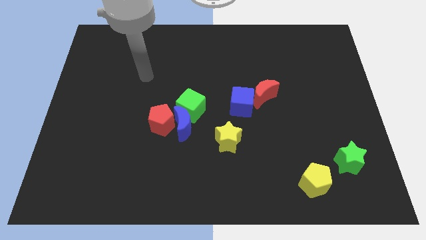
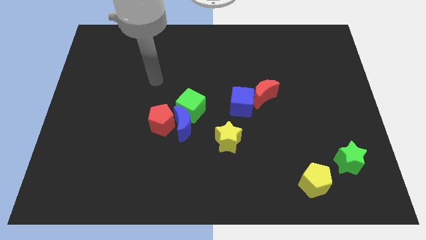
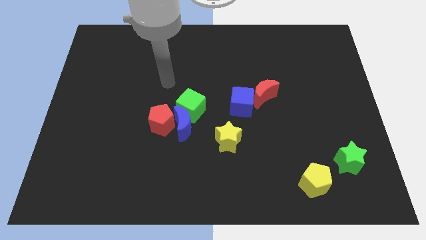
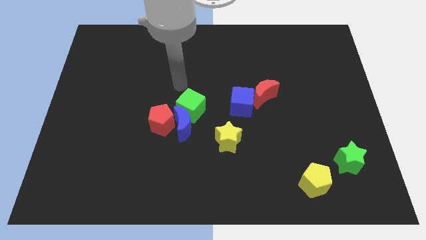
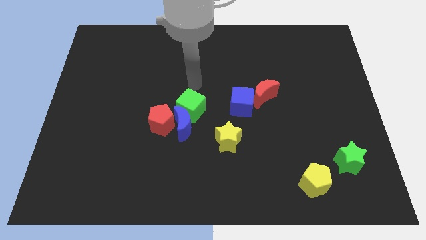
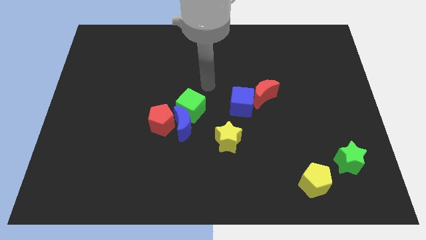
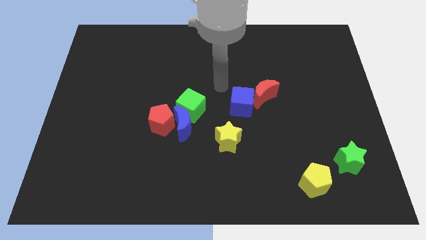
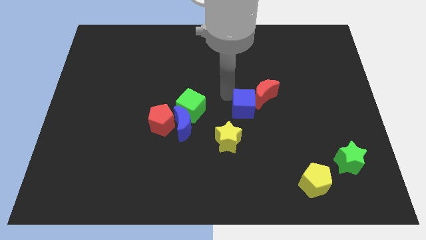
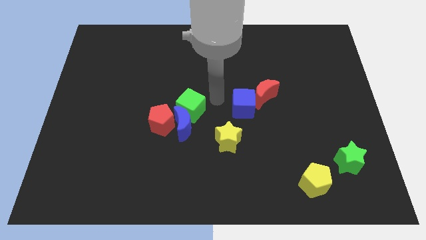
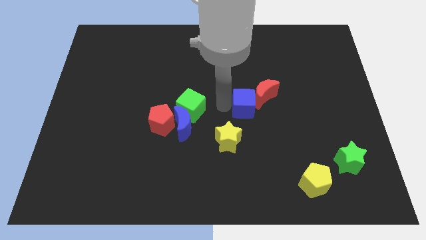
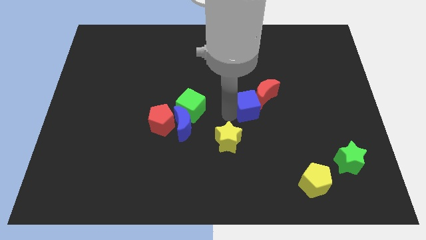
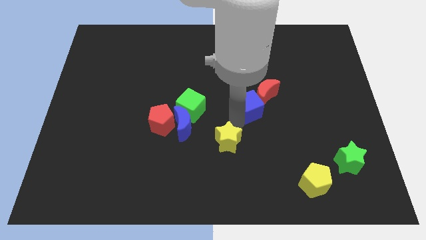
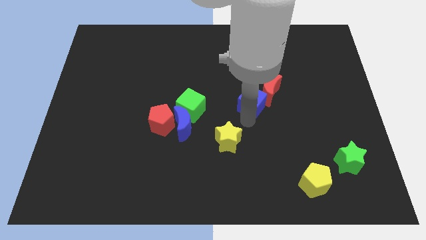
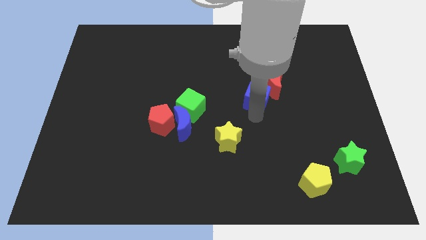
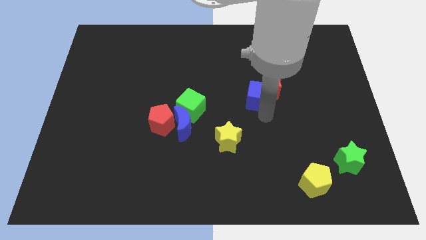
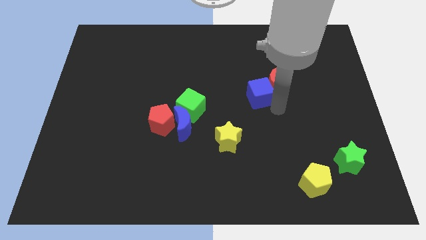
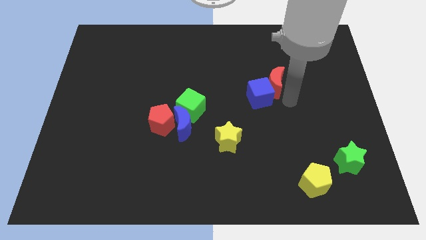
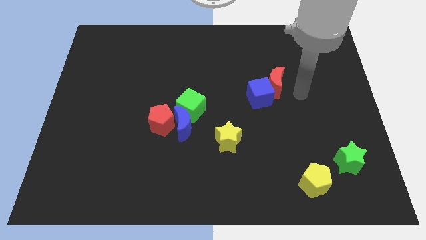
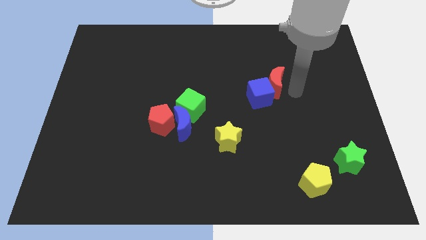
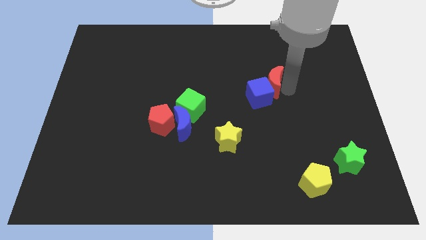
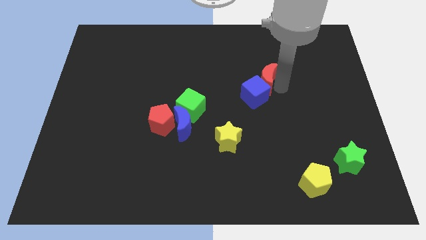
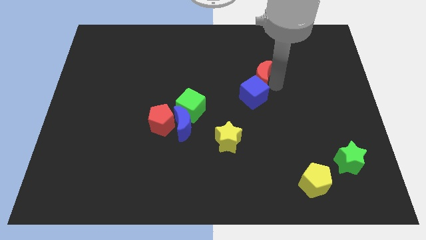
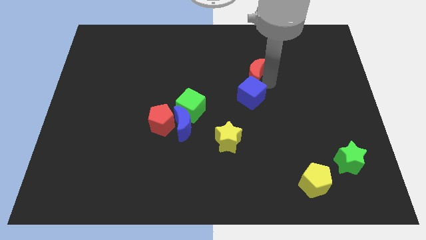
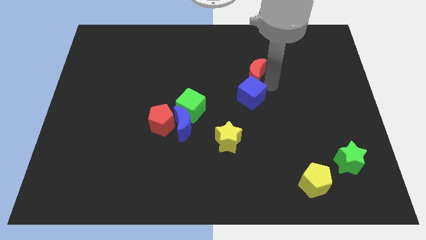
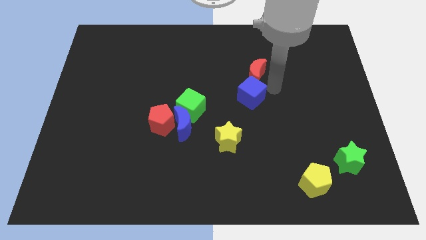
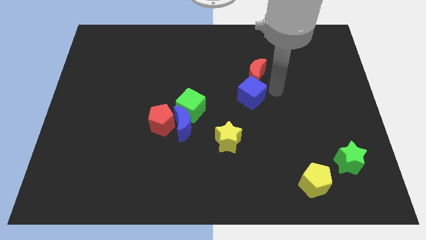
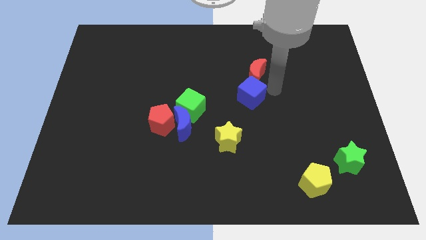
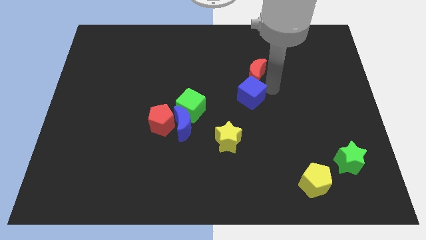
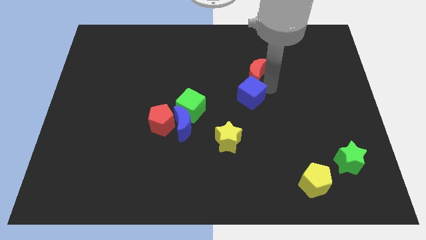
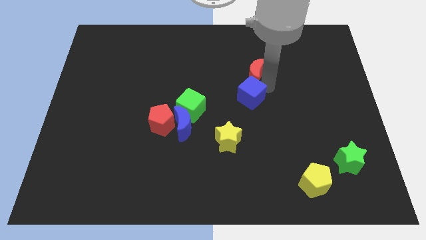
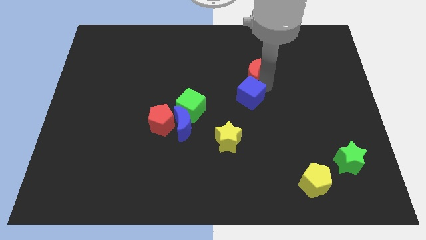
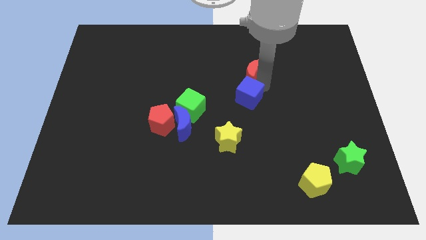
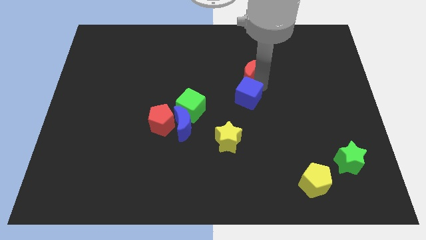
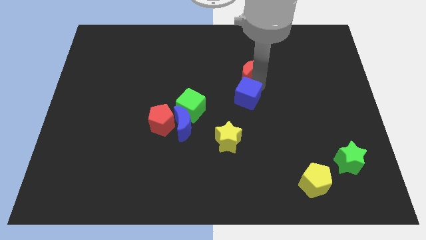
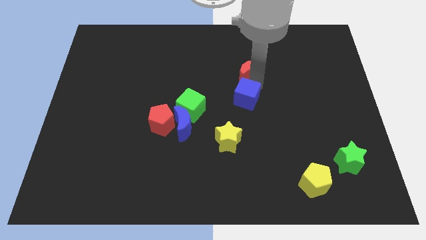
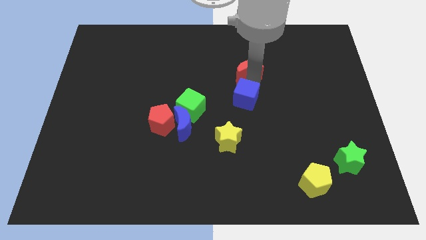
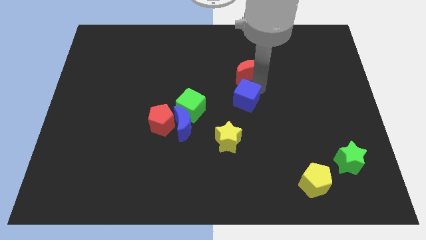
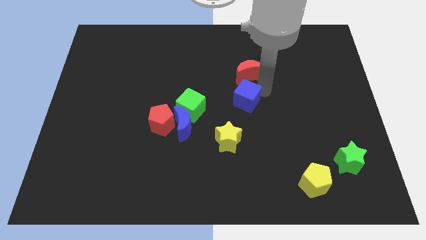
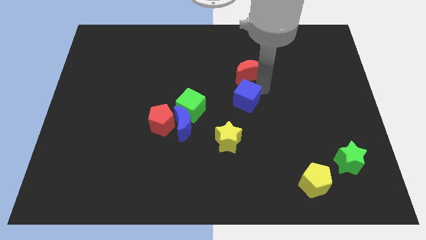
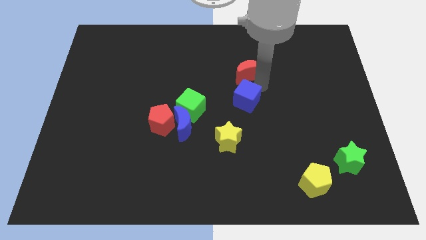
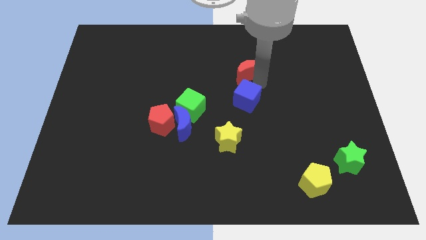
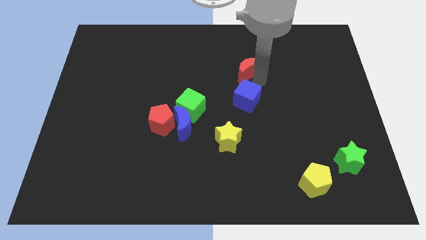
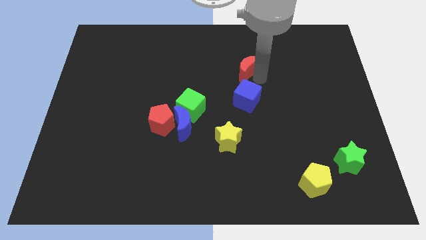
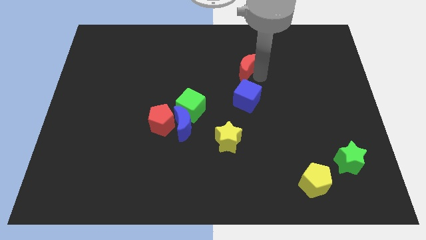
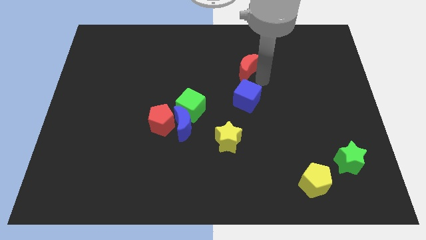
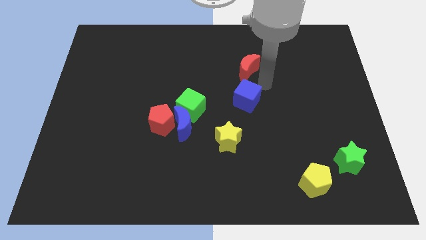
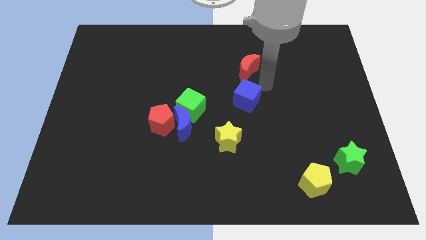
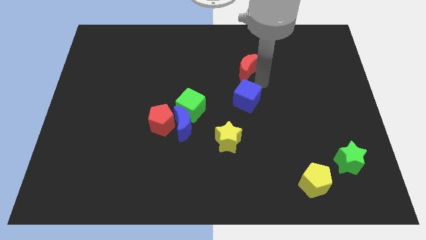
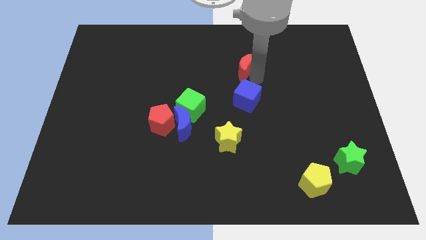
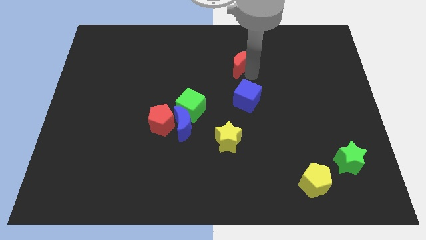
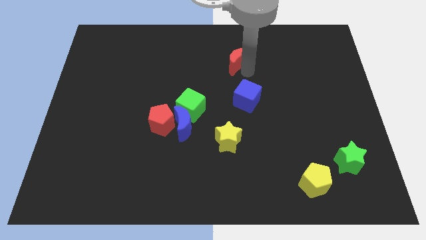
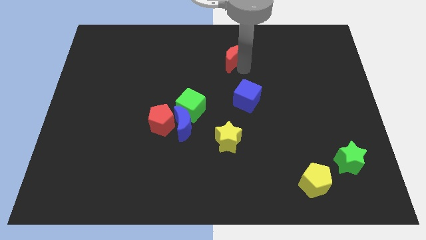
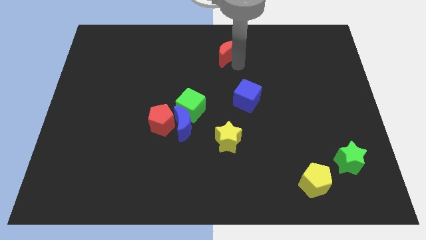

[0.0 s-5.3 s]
move the red moon to the top

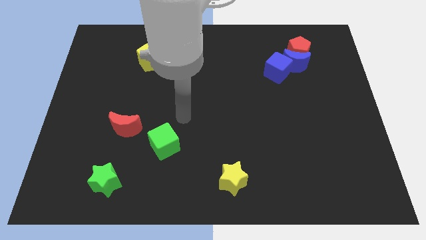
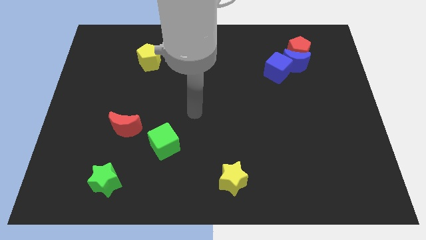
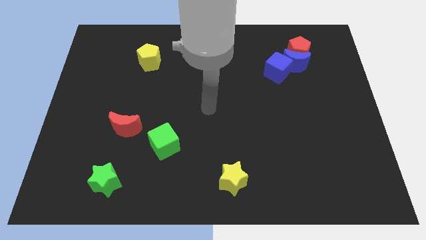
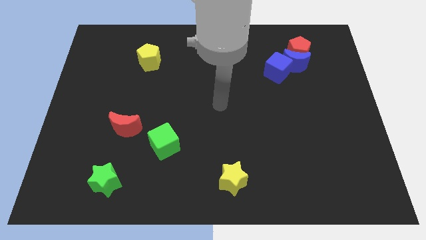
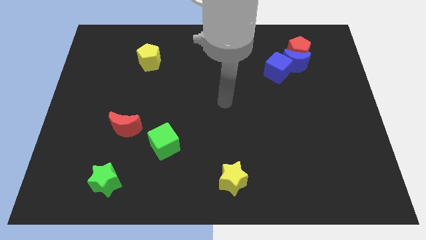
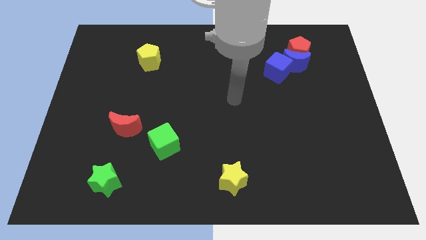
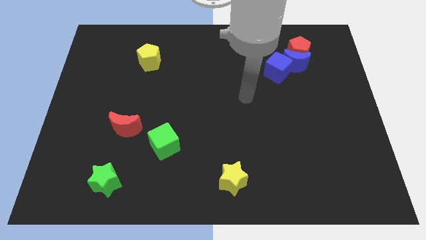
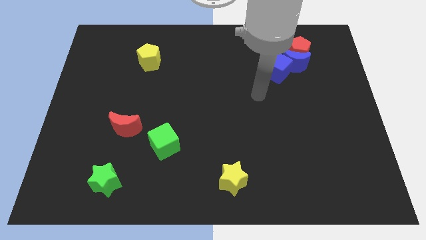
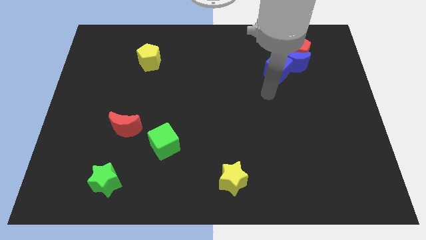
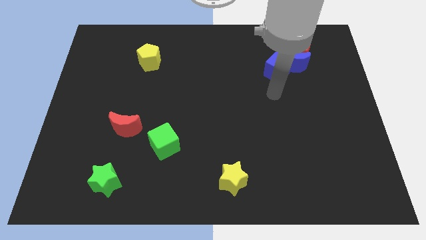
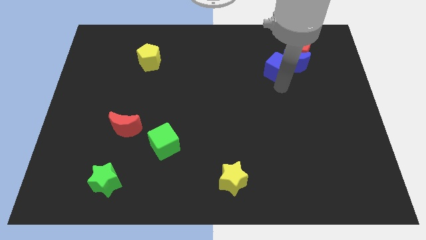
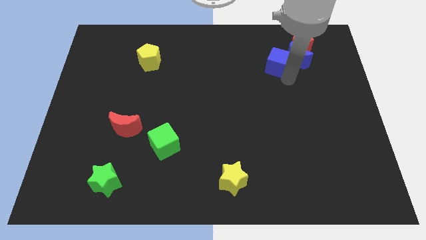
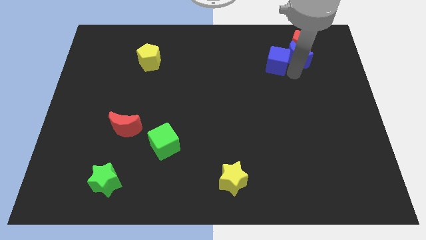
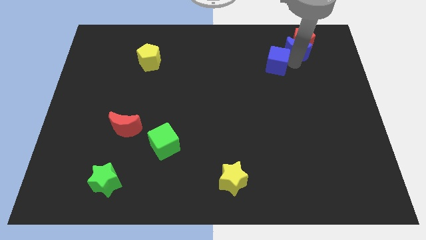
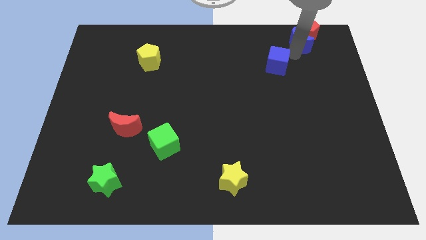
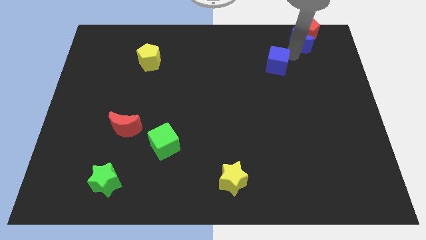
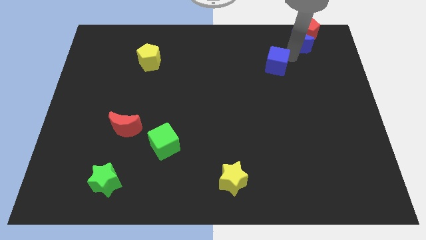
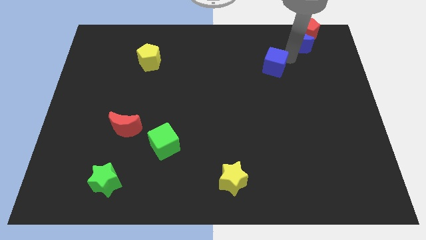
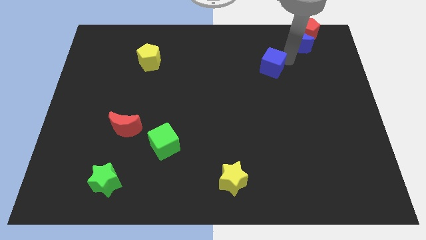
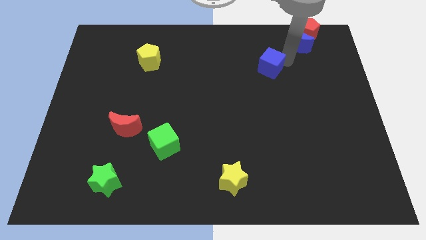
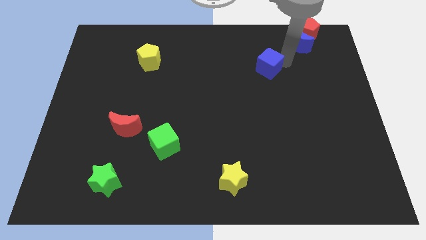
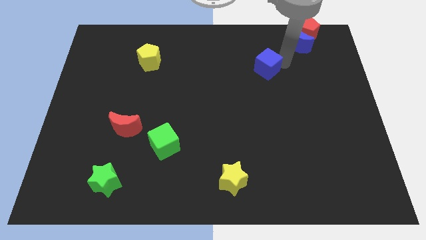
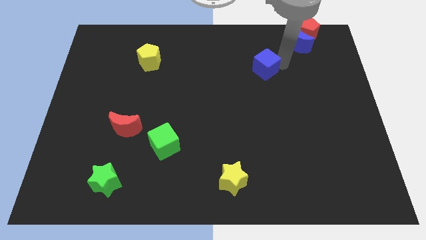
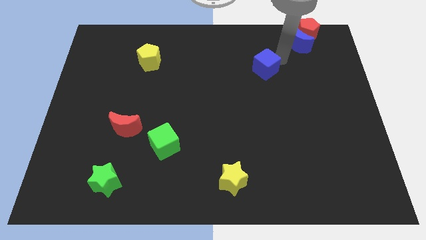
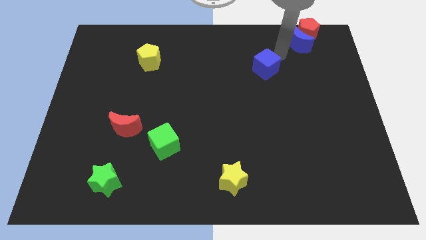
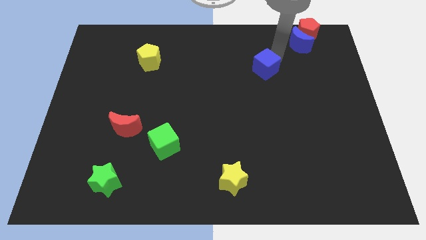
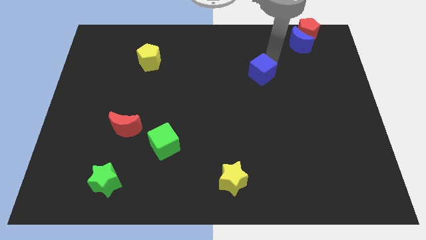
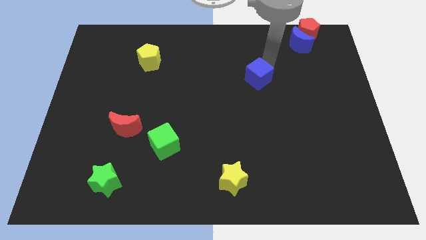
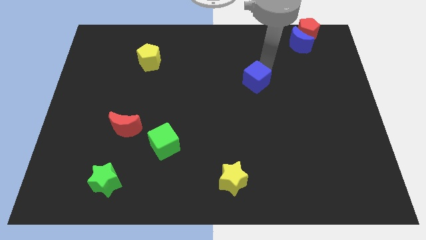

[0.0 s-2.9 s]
put the blue cube to the center
